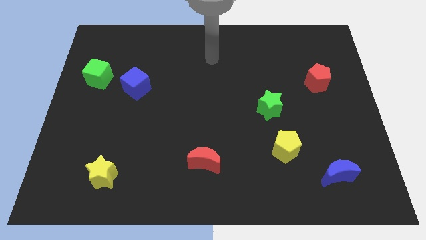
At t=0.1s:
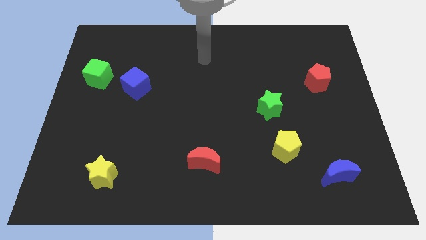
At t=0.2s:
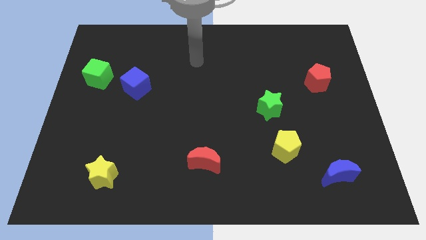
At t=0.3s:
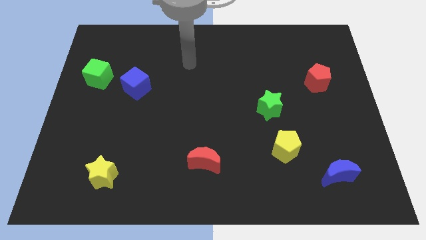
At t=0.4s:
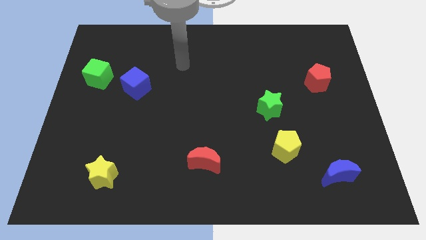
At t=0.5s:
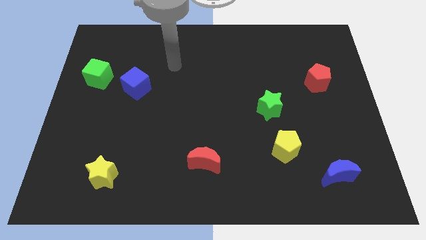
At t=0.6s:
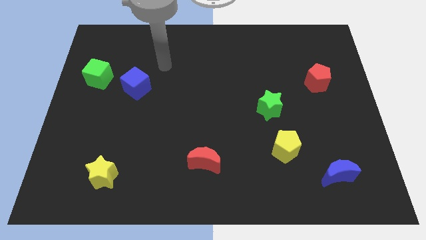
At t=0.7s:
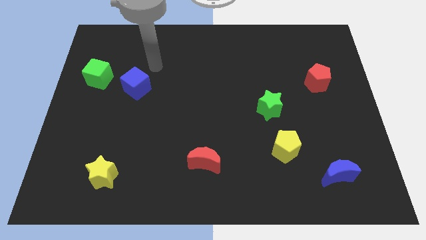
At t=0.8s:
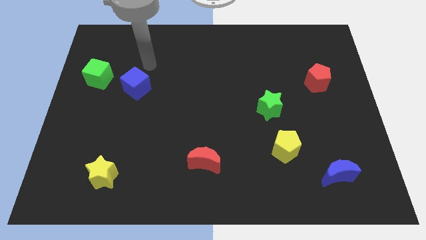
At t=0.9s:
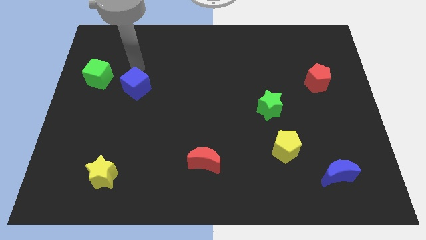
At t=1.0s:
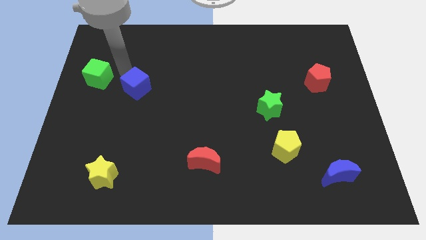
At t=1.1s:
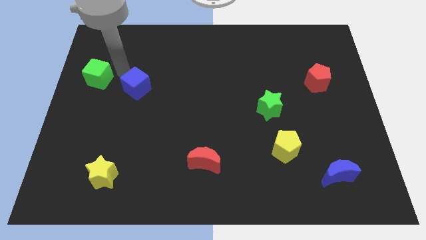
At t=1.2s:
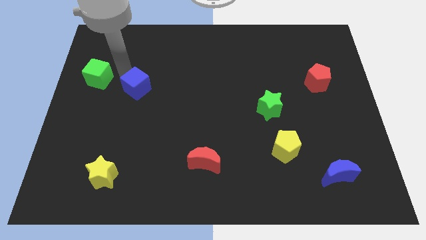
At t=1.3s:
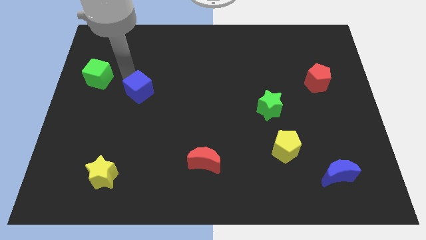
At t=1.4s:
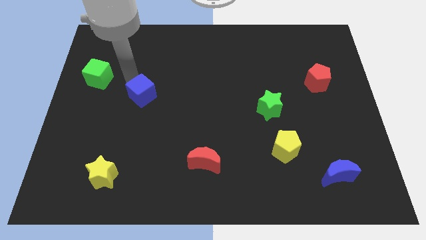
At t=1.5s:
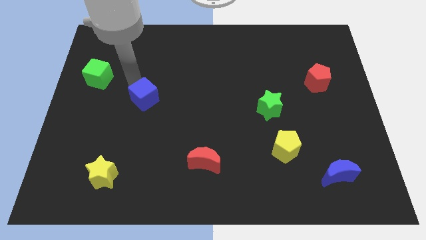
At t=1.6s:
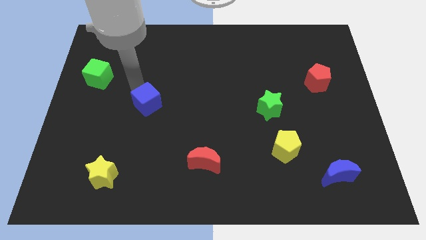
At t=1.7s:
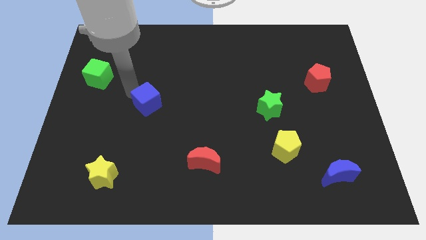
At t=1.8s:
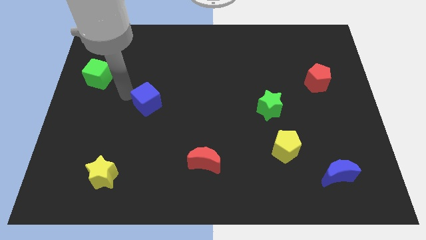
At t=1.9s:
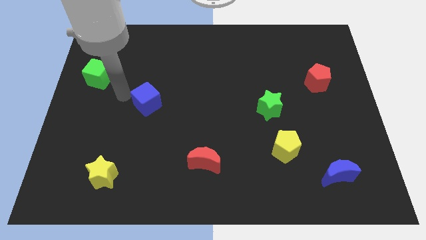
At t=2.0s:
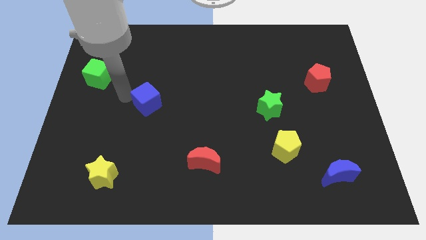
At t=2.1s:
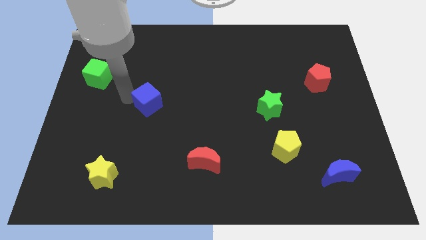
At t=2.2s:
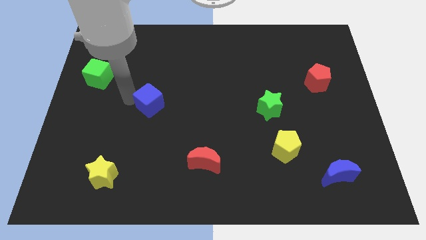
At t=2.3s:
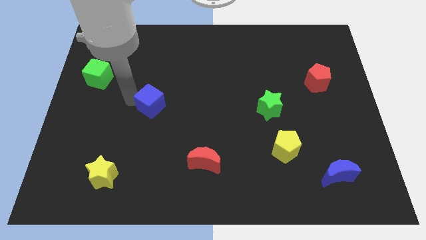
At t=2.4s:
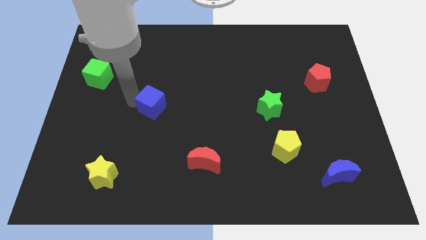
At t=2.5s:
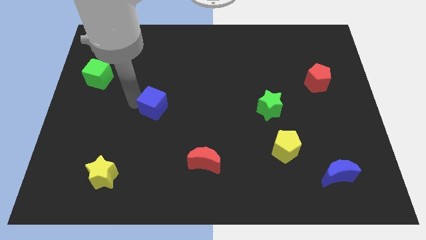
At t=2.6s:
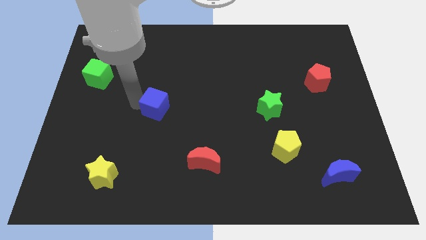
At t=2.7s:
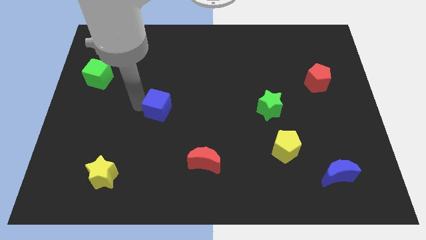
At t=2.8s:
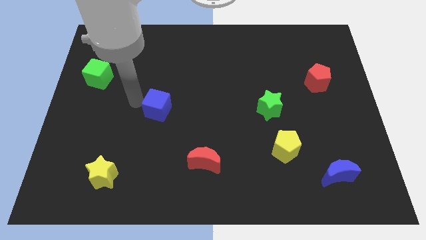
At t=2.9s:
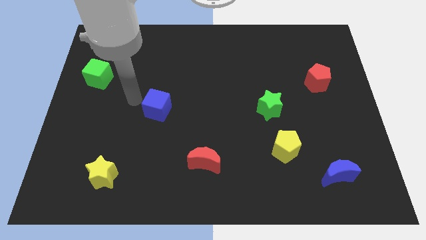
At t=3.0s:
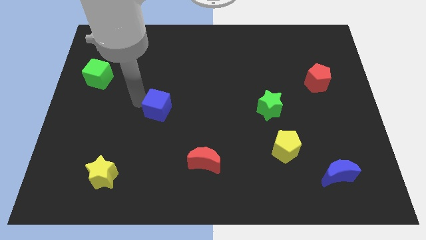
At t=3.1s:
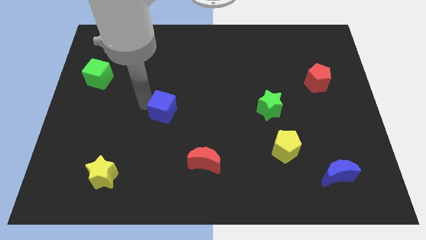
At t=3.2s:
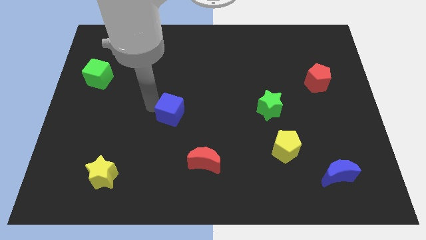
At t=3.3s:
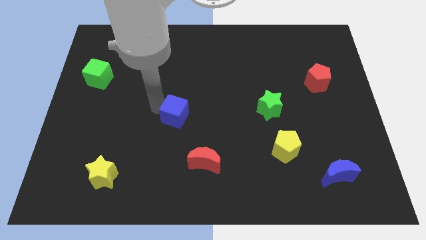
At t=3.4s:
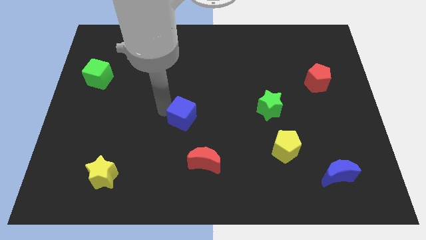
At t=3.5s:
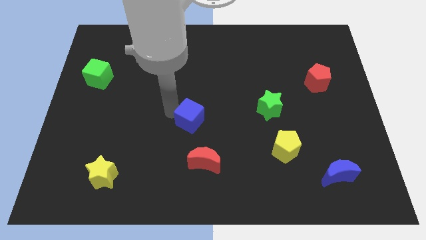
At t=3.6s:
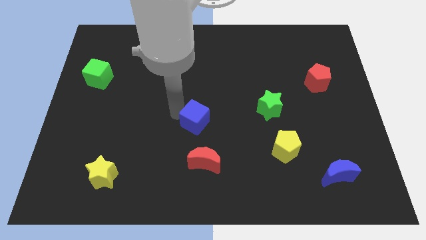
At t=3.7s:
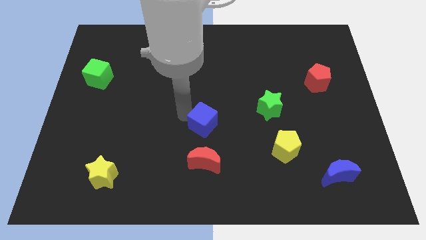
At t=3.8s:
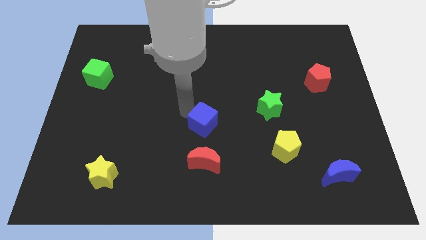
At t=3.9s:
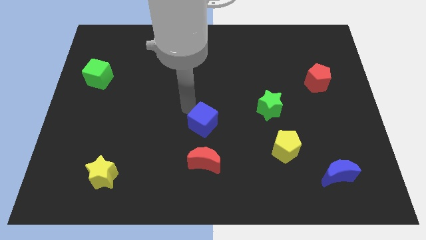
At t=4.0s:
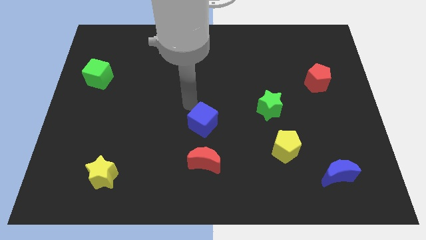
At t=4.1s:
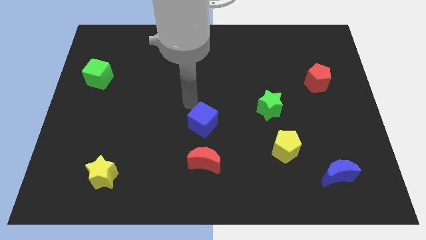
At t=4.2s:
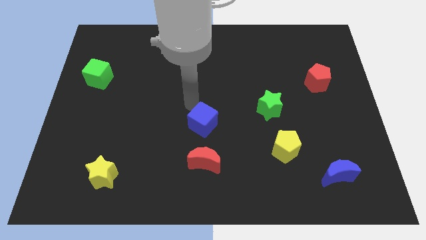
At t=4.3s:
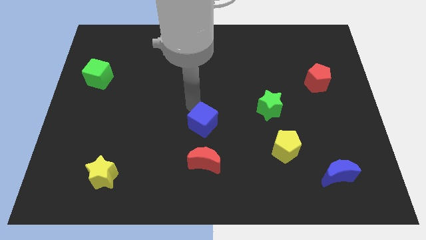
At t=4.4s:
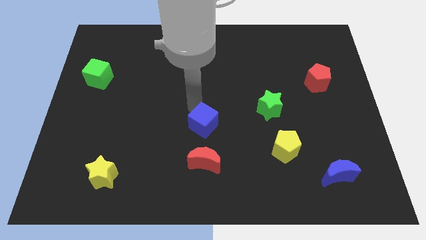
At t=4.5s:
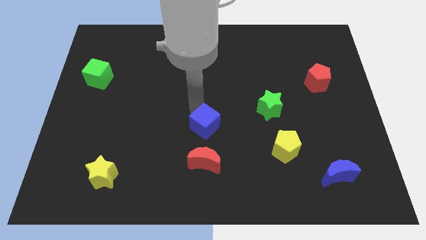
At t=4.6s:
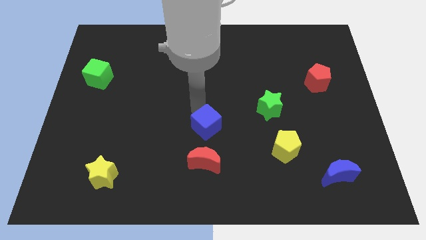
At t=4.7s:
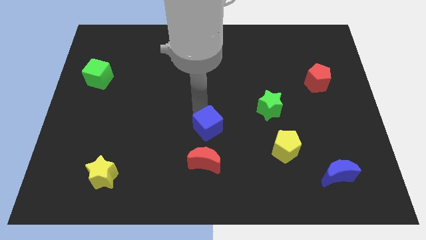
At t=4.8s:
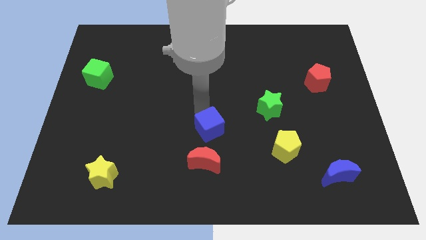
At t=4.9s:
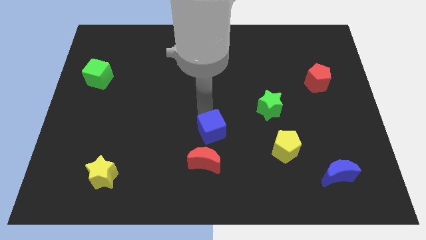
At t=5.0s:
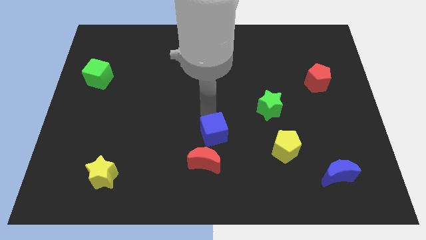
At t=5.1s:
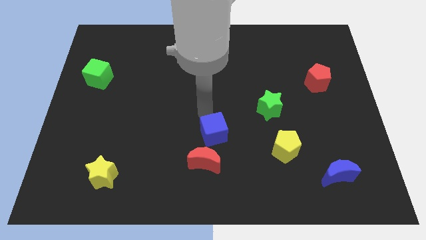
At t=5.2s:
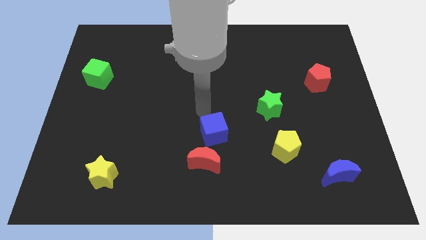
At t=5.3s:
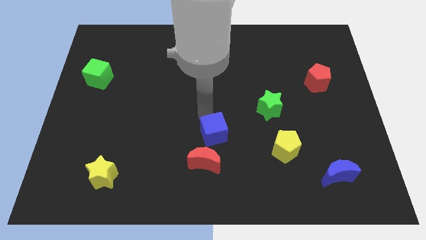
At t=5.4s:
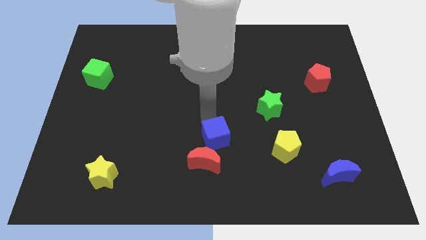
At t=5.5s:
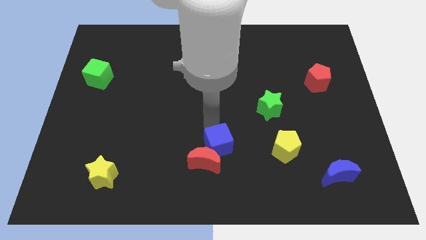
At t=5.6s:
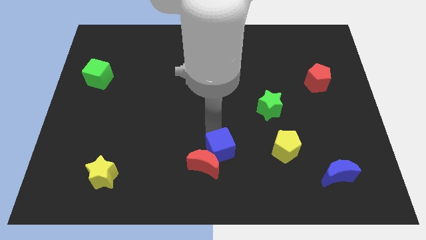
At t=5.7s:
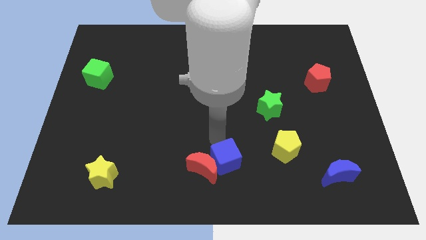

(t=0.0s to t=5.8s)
slide the blue cube to the bottom right of the red moon

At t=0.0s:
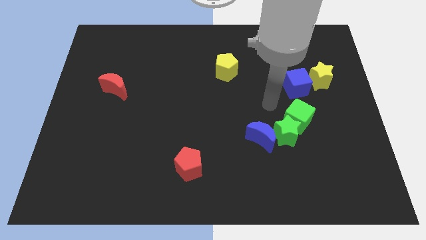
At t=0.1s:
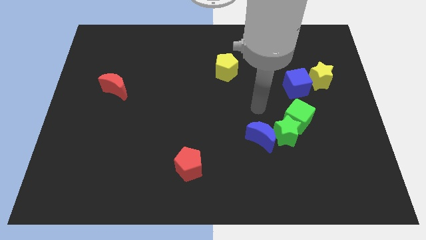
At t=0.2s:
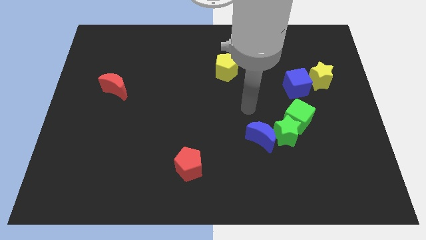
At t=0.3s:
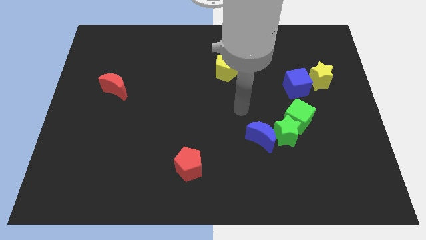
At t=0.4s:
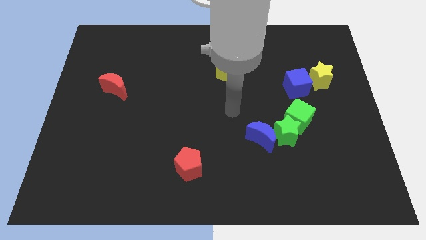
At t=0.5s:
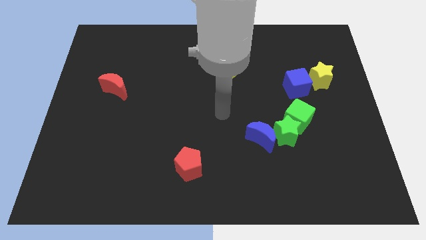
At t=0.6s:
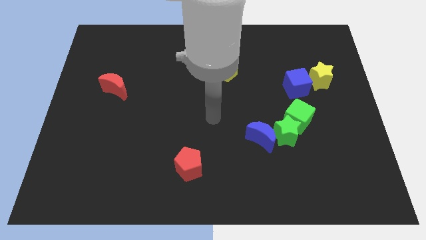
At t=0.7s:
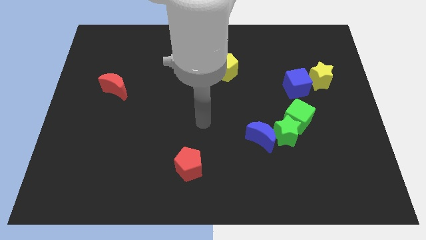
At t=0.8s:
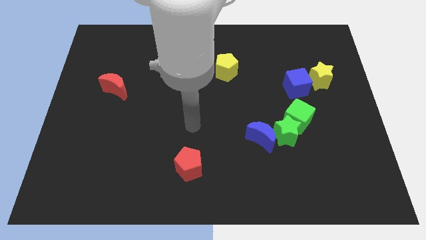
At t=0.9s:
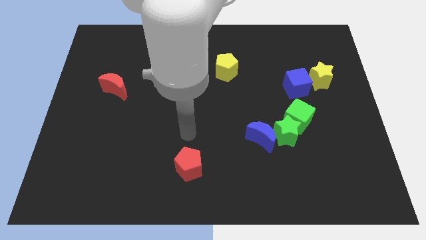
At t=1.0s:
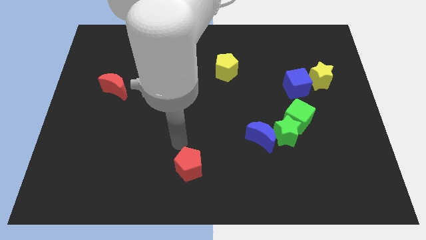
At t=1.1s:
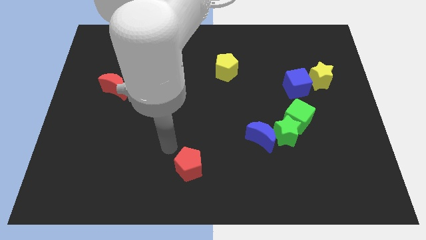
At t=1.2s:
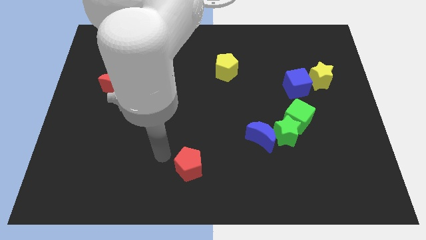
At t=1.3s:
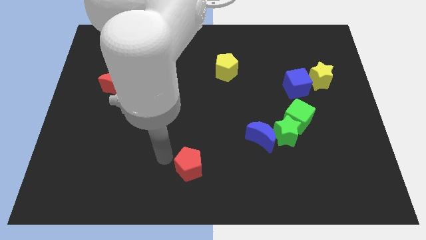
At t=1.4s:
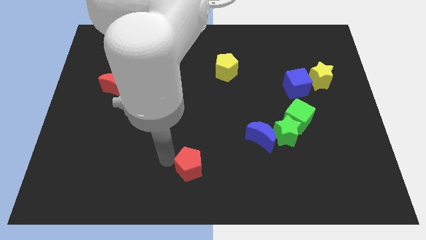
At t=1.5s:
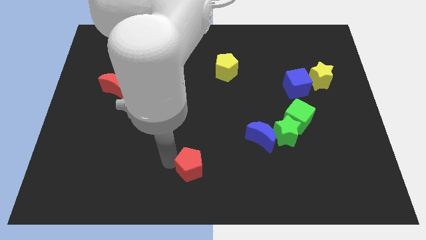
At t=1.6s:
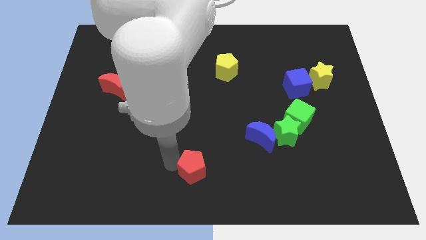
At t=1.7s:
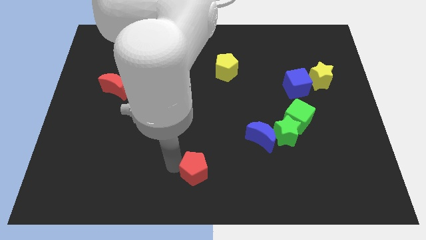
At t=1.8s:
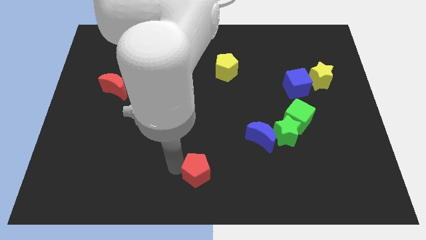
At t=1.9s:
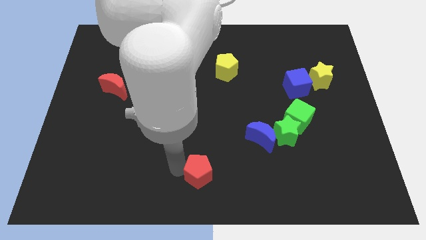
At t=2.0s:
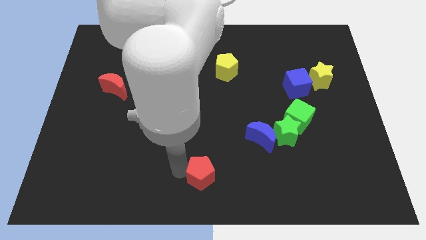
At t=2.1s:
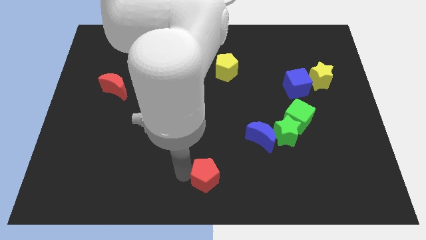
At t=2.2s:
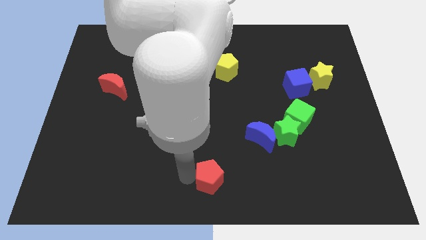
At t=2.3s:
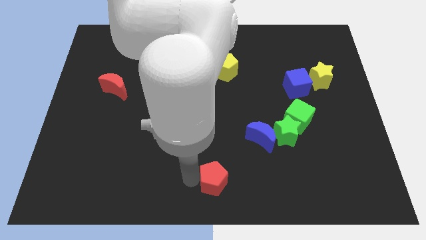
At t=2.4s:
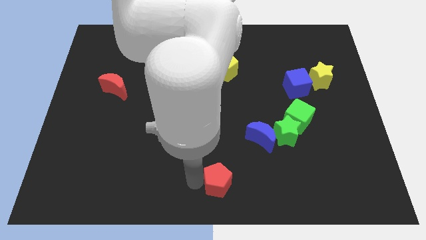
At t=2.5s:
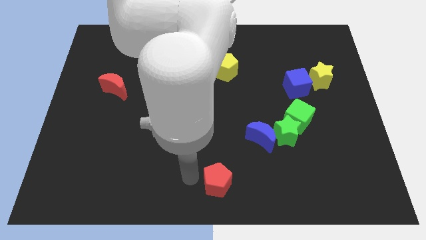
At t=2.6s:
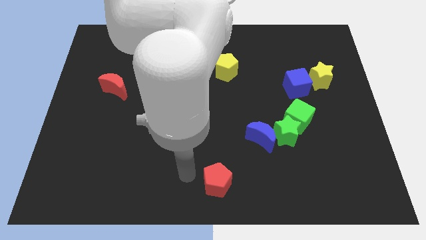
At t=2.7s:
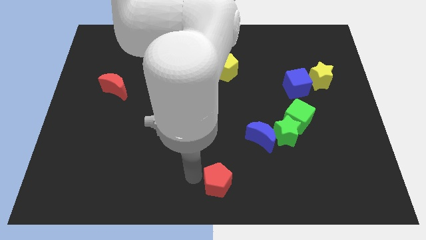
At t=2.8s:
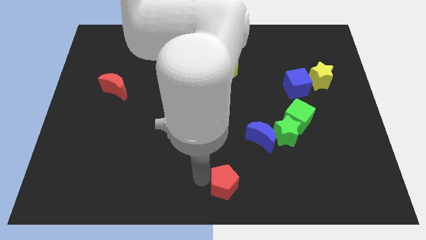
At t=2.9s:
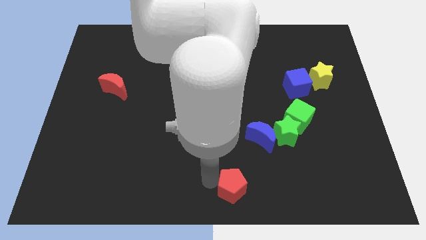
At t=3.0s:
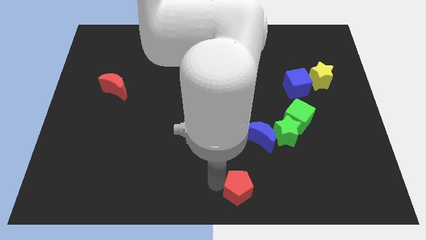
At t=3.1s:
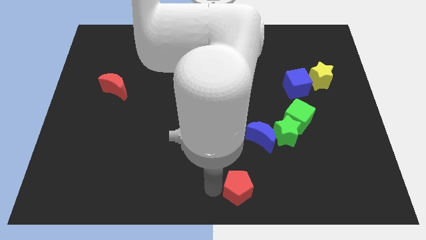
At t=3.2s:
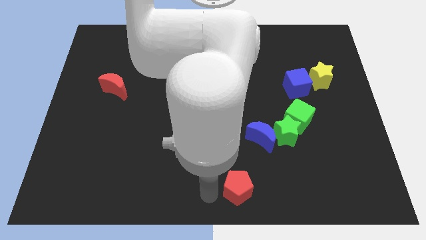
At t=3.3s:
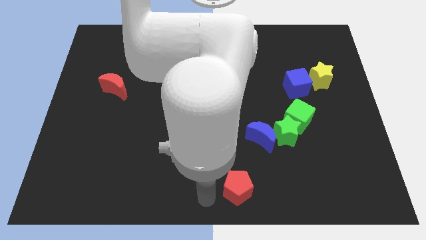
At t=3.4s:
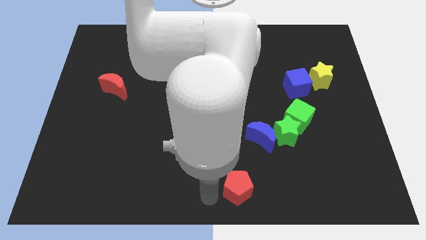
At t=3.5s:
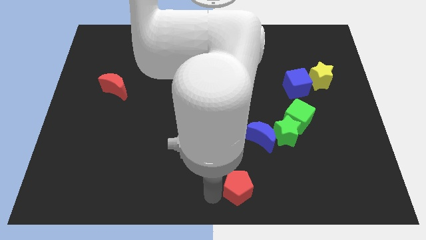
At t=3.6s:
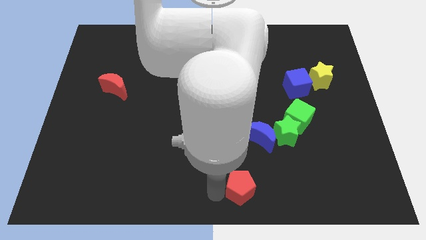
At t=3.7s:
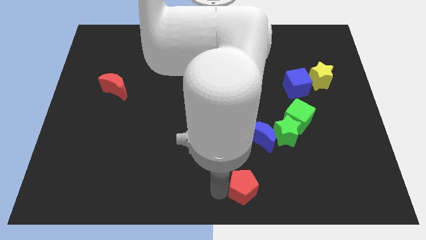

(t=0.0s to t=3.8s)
move the red pentagon below the blue moon
